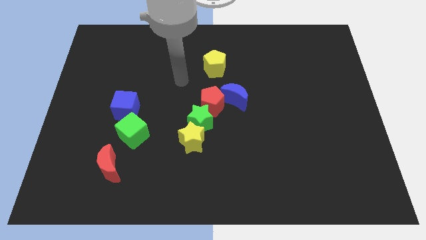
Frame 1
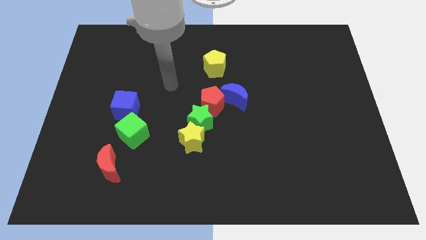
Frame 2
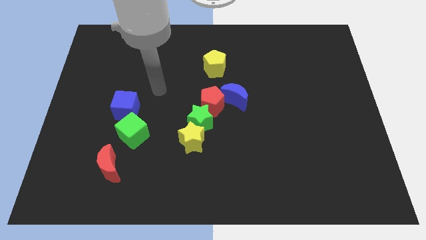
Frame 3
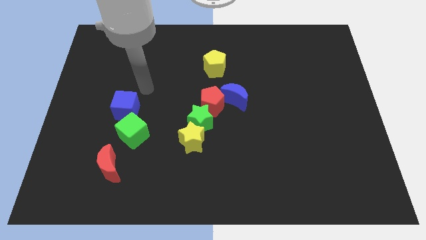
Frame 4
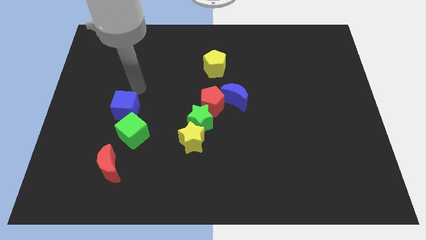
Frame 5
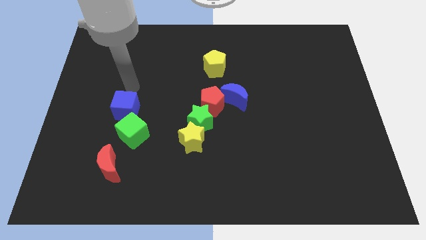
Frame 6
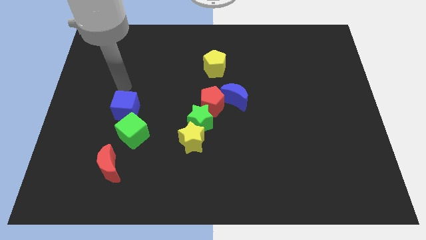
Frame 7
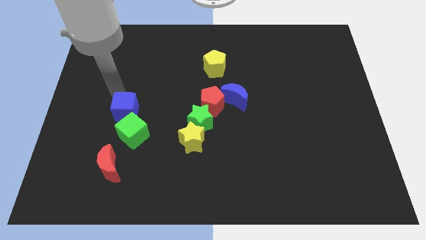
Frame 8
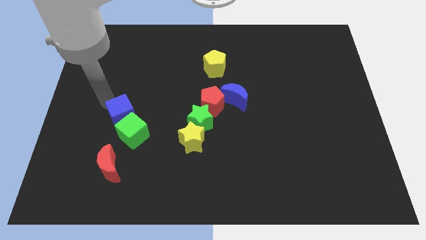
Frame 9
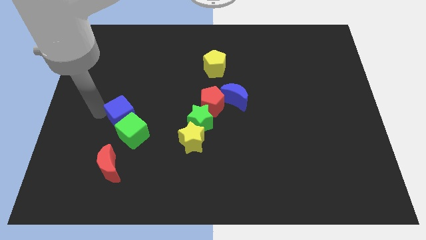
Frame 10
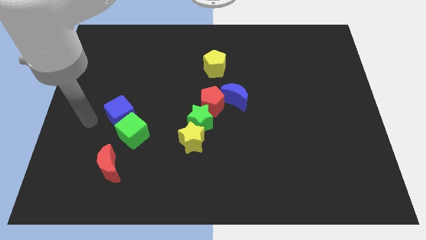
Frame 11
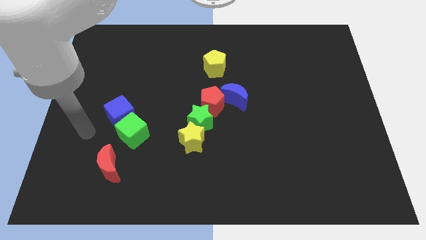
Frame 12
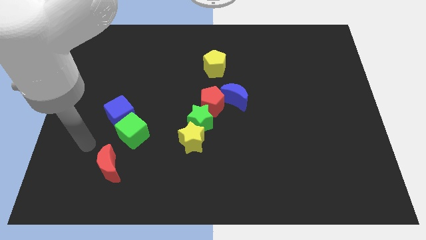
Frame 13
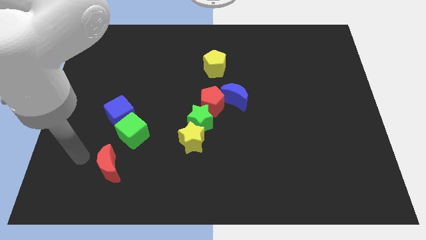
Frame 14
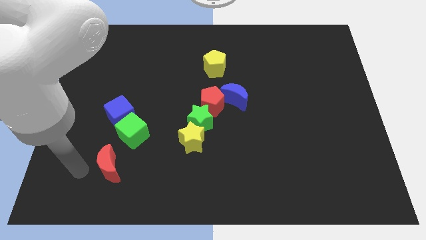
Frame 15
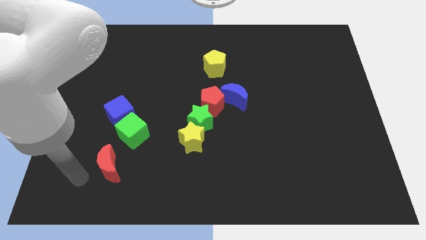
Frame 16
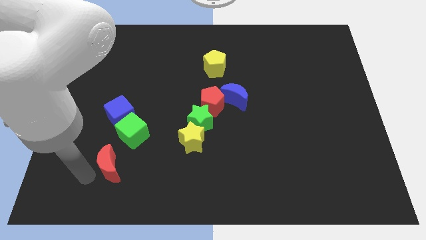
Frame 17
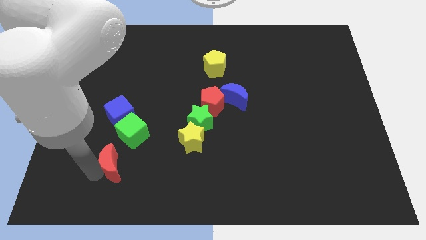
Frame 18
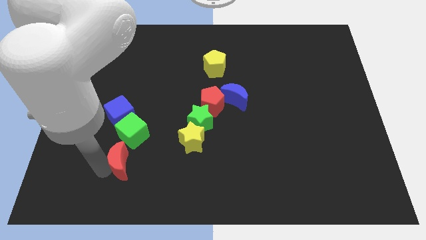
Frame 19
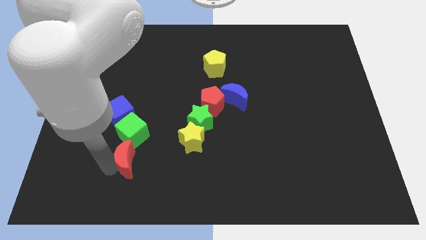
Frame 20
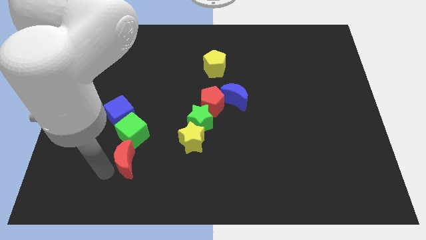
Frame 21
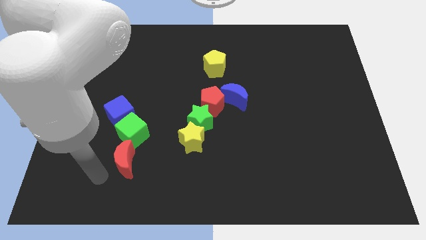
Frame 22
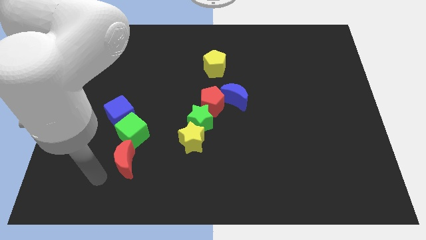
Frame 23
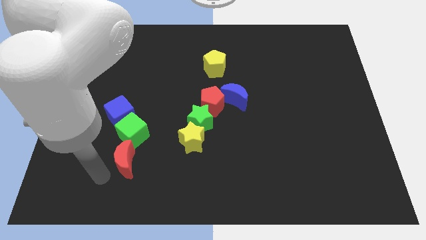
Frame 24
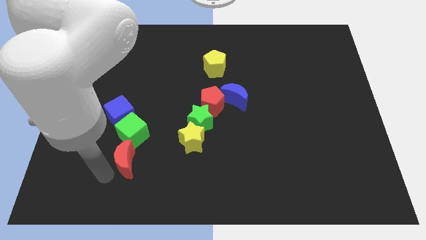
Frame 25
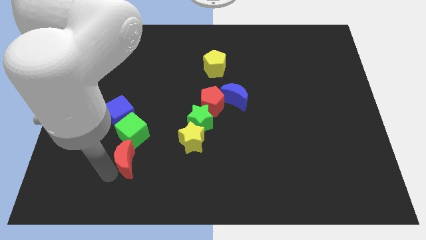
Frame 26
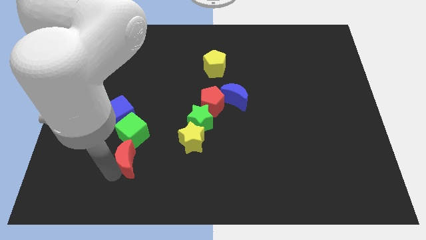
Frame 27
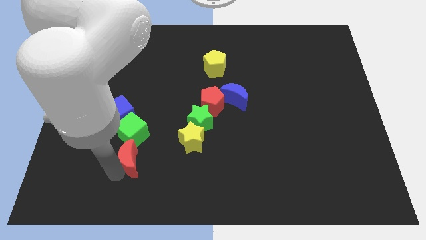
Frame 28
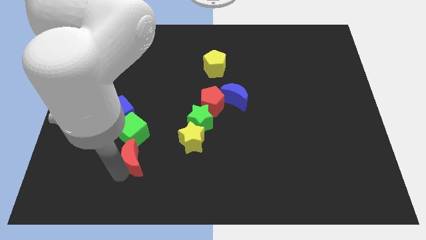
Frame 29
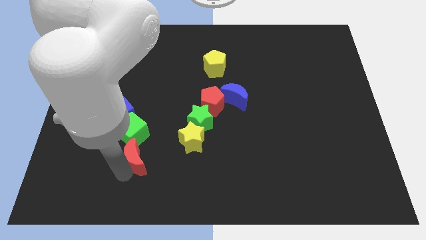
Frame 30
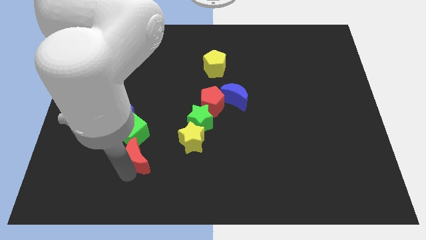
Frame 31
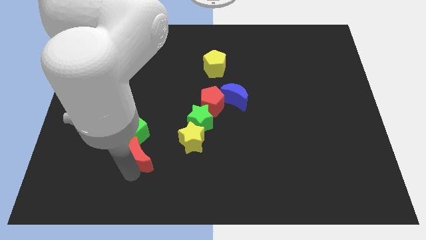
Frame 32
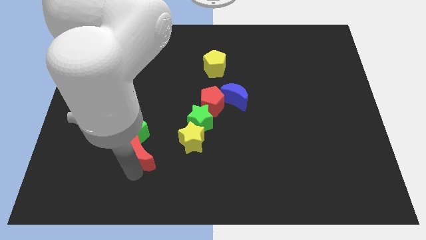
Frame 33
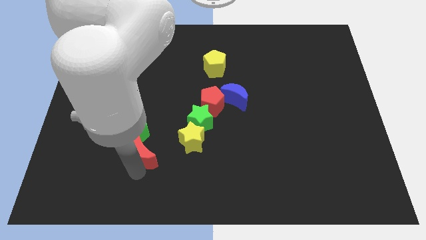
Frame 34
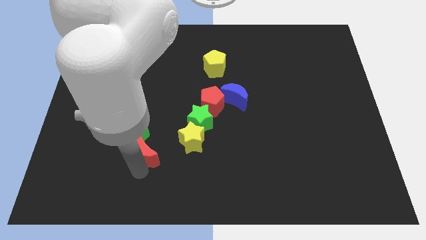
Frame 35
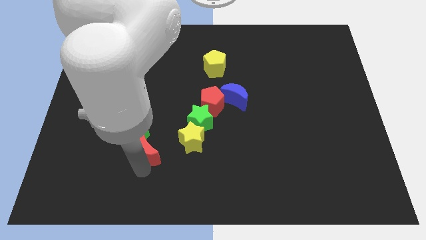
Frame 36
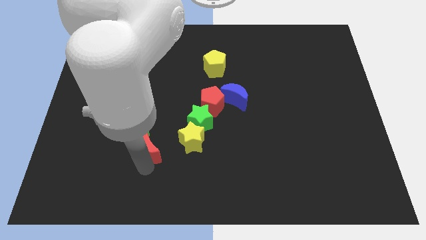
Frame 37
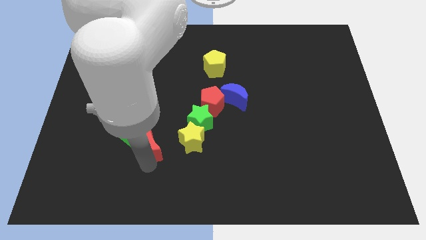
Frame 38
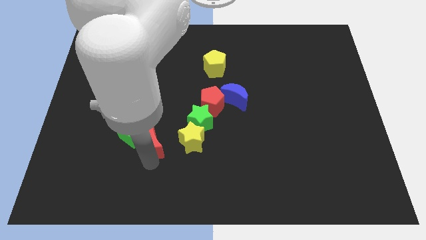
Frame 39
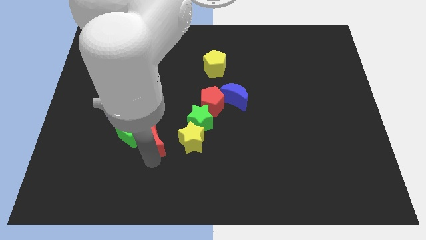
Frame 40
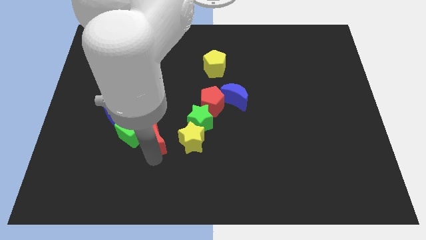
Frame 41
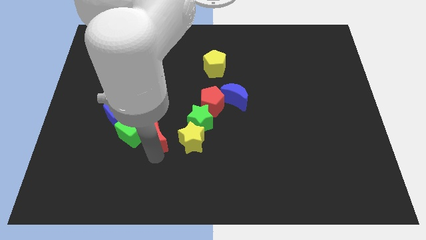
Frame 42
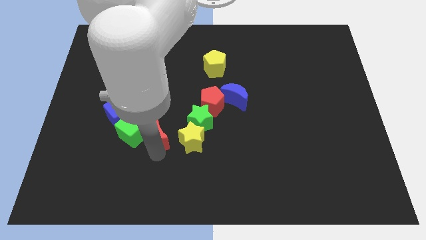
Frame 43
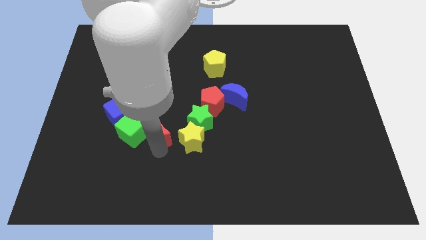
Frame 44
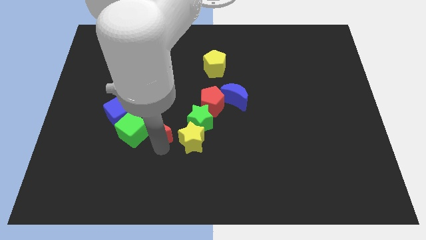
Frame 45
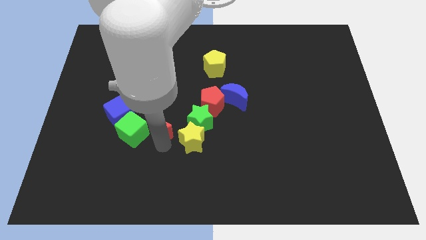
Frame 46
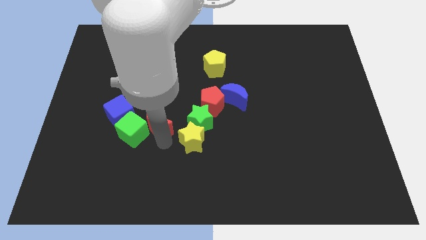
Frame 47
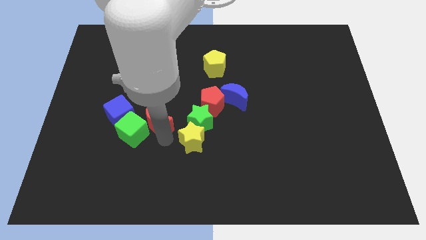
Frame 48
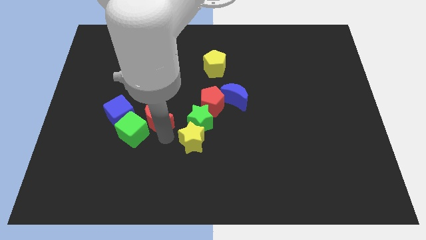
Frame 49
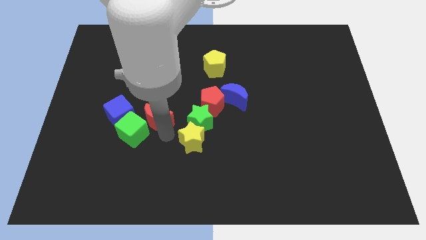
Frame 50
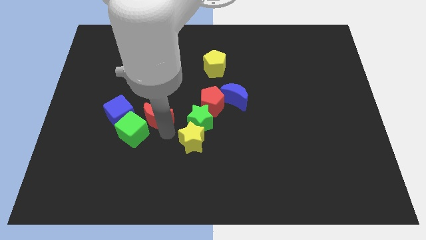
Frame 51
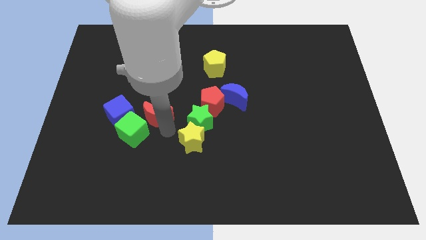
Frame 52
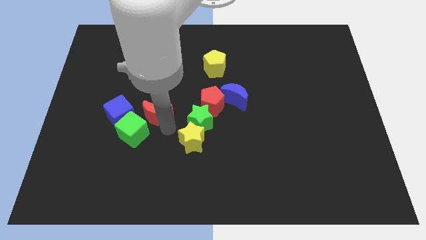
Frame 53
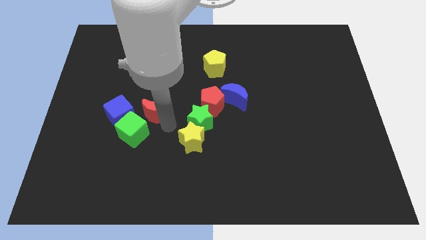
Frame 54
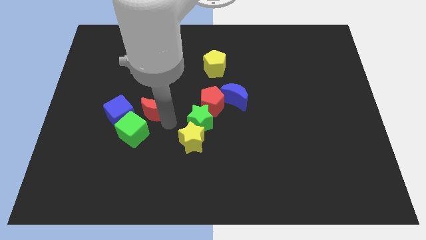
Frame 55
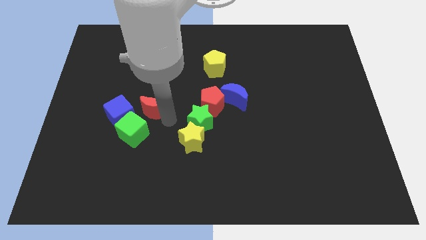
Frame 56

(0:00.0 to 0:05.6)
slide the red moon to the top right side of the blue cube

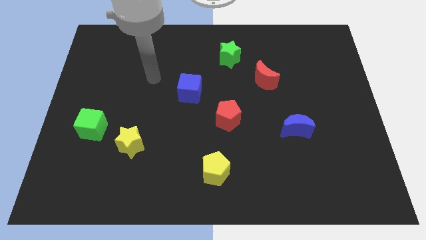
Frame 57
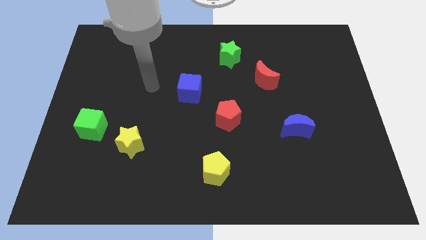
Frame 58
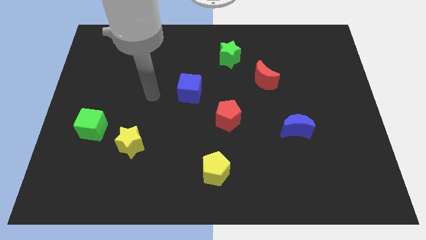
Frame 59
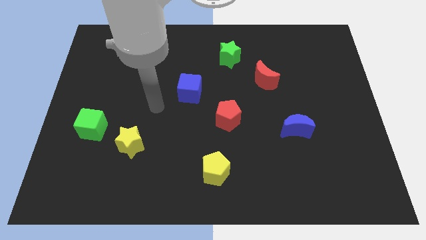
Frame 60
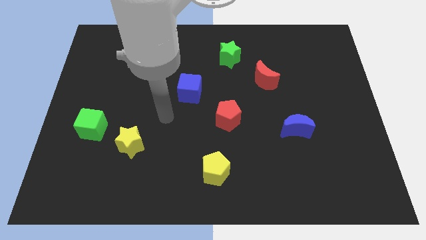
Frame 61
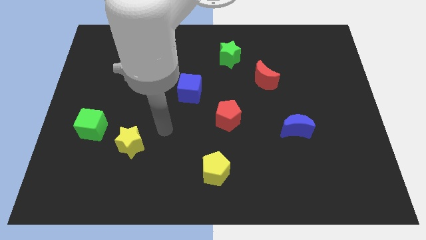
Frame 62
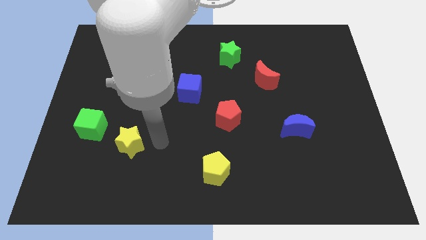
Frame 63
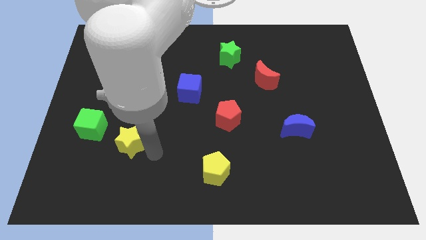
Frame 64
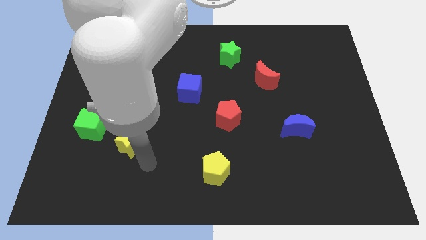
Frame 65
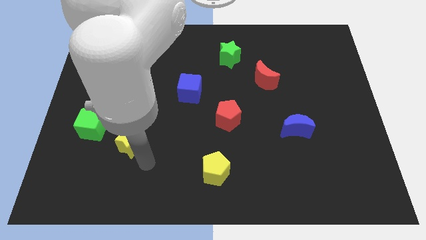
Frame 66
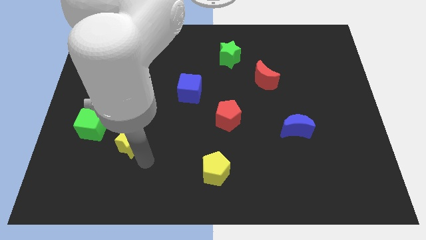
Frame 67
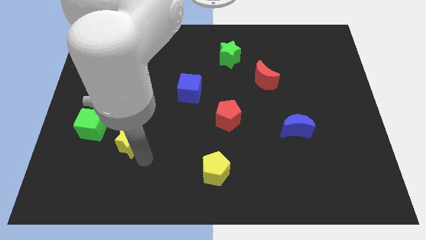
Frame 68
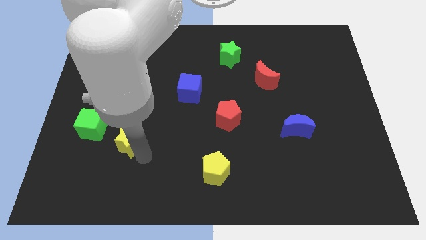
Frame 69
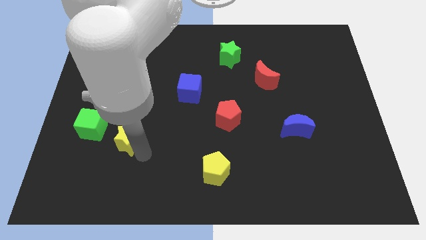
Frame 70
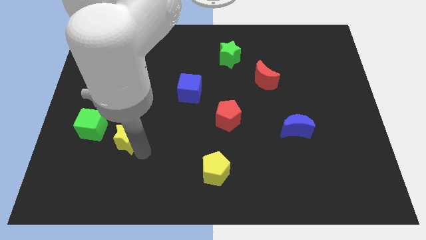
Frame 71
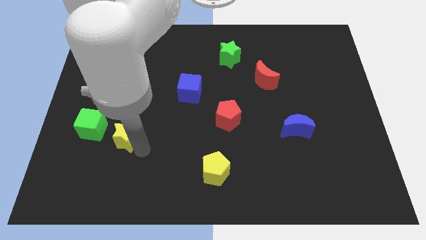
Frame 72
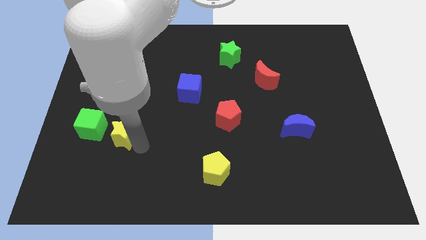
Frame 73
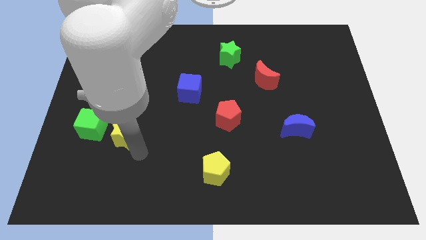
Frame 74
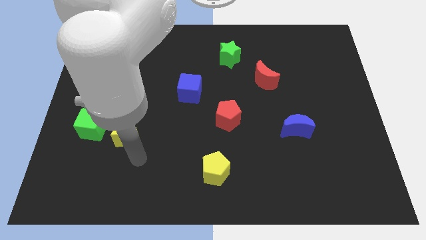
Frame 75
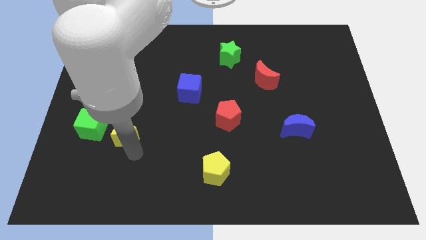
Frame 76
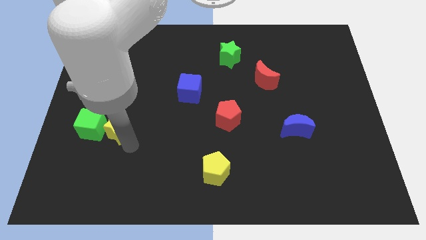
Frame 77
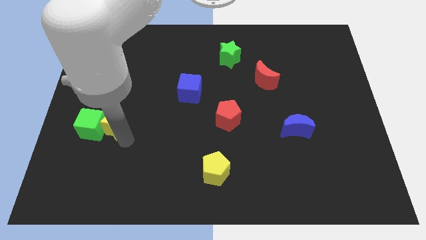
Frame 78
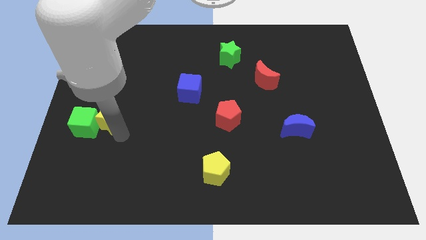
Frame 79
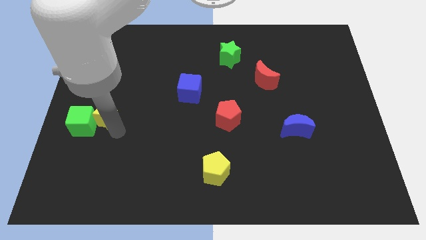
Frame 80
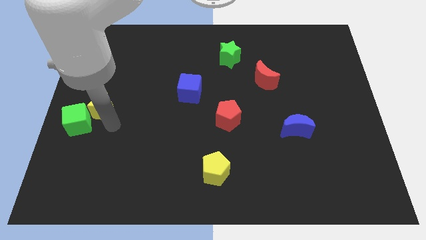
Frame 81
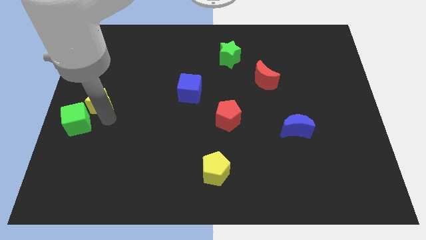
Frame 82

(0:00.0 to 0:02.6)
push the yellow star above the green cube
